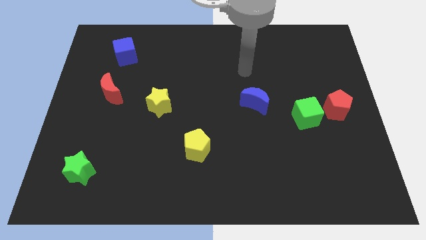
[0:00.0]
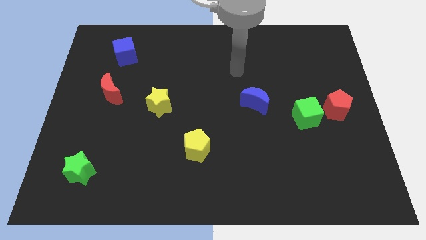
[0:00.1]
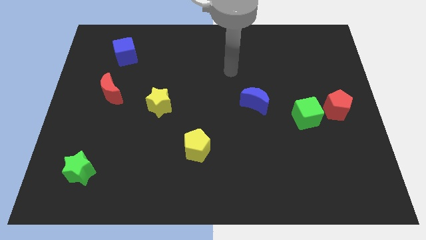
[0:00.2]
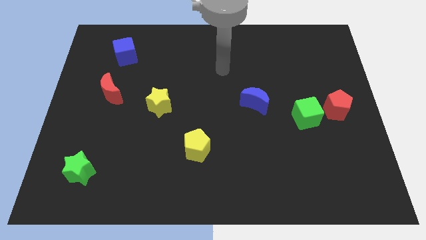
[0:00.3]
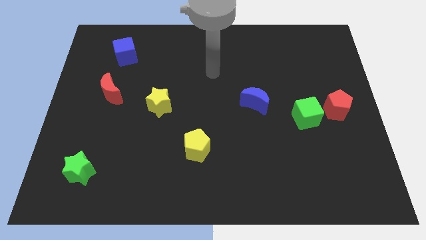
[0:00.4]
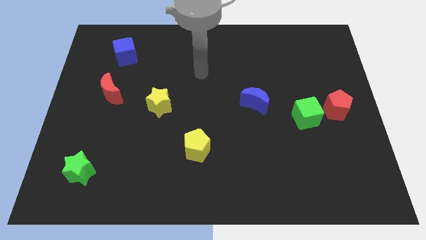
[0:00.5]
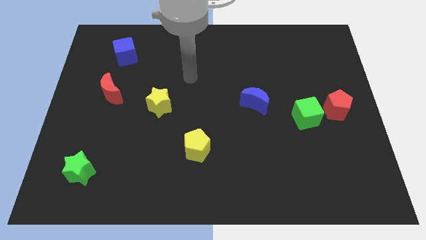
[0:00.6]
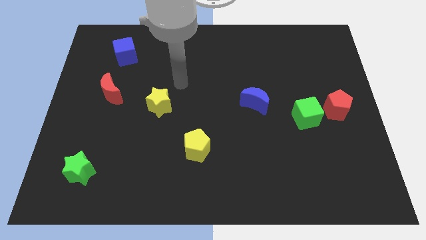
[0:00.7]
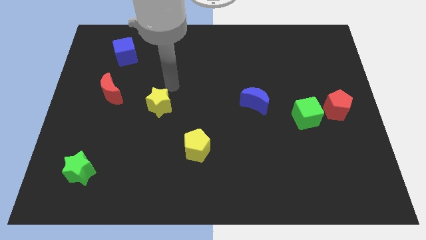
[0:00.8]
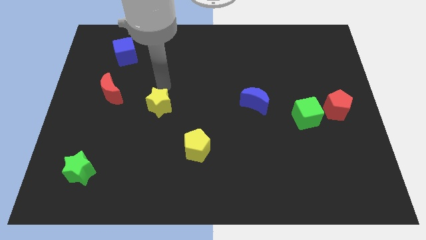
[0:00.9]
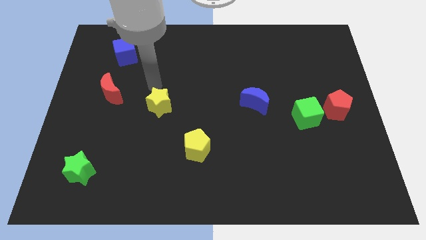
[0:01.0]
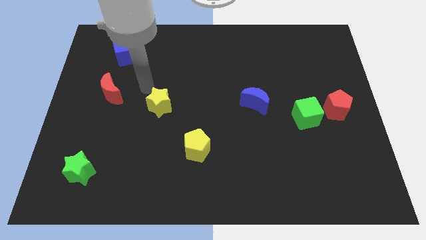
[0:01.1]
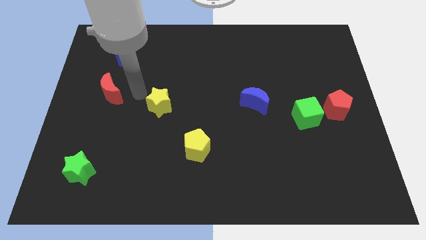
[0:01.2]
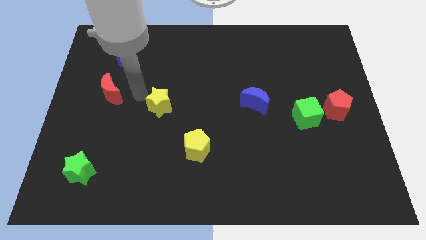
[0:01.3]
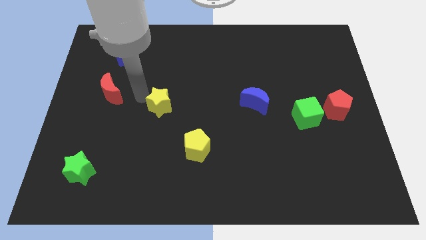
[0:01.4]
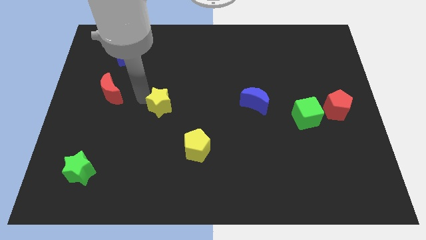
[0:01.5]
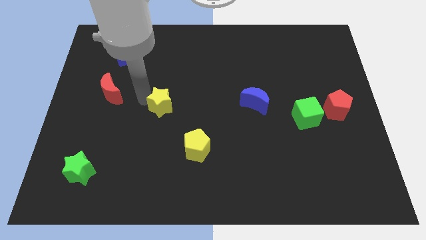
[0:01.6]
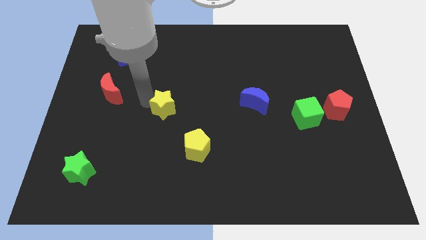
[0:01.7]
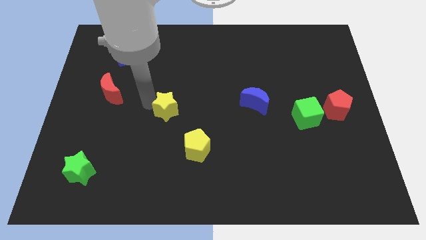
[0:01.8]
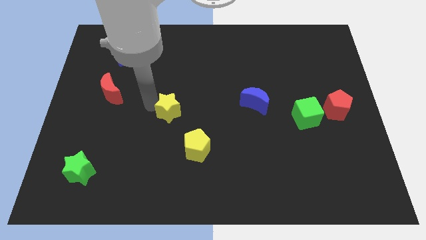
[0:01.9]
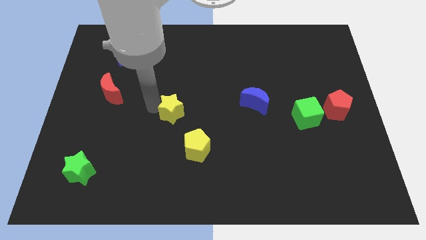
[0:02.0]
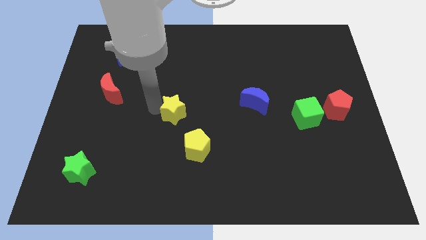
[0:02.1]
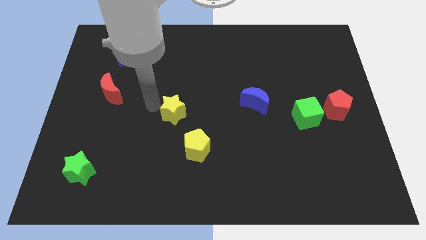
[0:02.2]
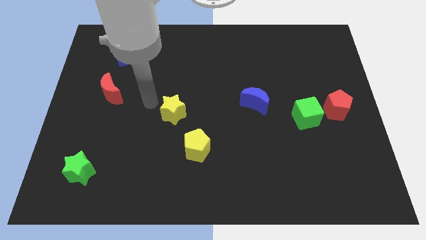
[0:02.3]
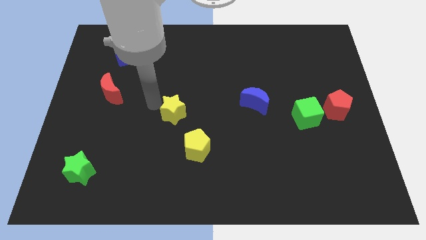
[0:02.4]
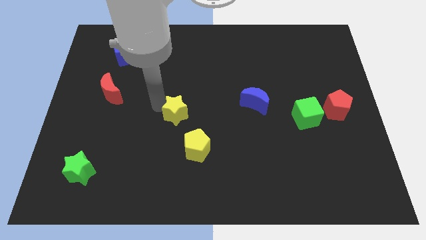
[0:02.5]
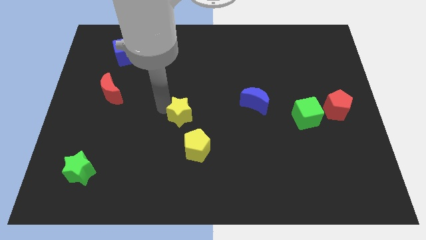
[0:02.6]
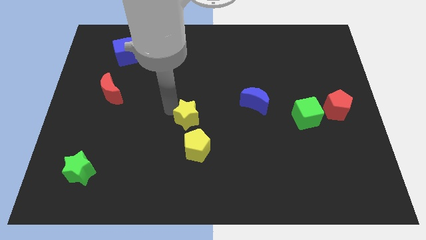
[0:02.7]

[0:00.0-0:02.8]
slightly move the yellow star down and then right

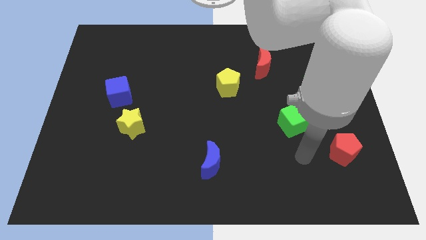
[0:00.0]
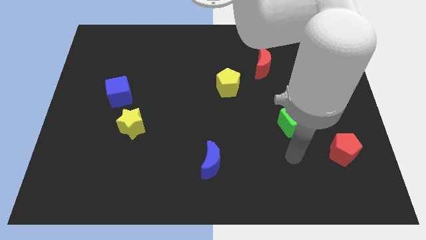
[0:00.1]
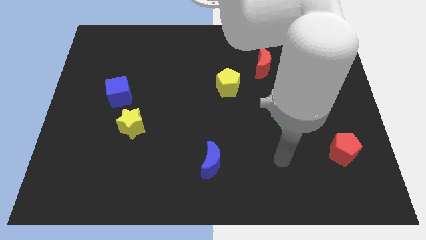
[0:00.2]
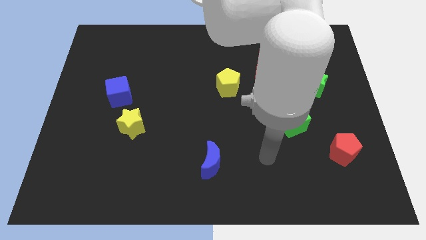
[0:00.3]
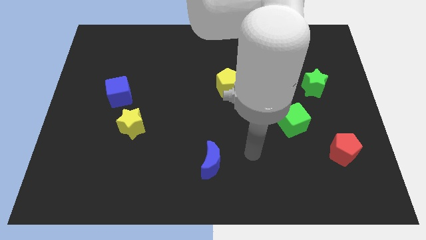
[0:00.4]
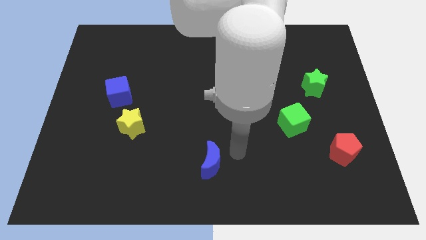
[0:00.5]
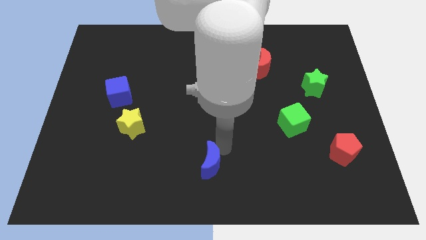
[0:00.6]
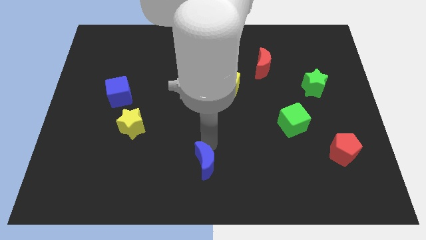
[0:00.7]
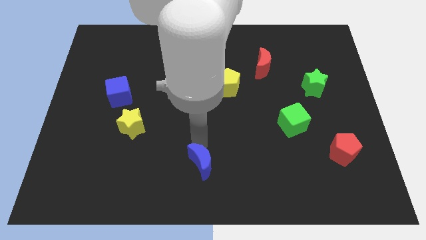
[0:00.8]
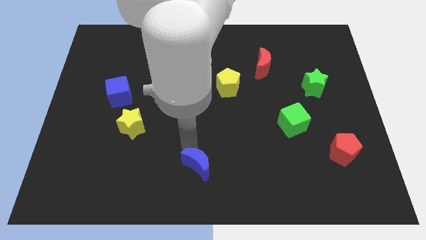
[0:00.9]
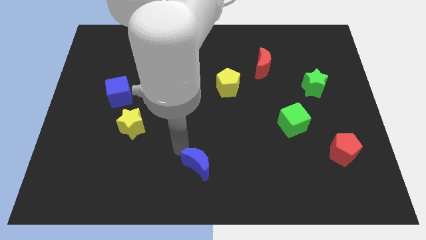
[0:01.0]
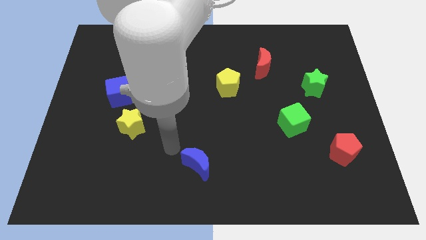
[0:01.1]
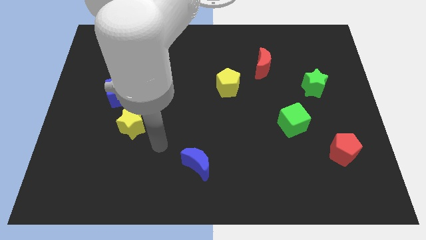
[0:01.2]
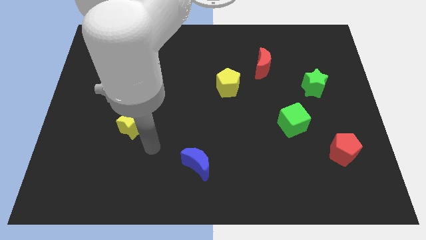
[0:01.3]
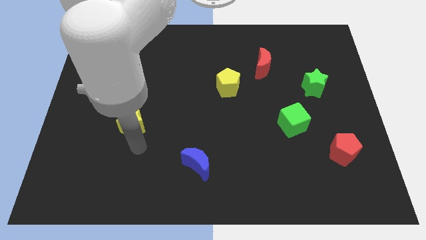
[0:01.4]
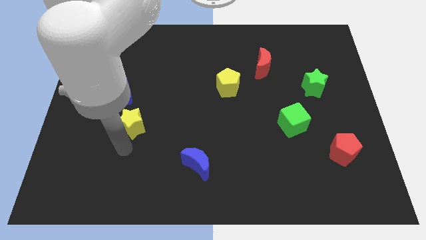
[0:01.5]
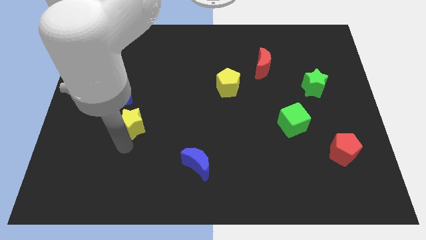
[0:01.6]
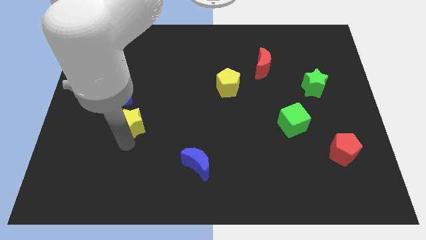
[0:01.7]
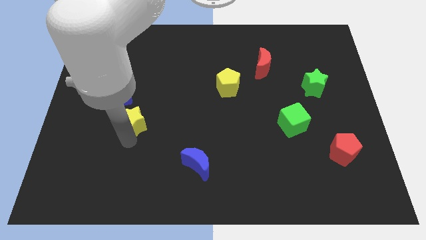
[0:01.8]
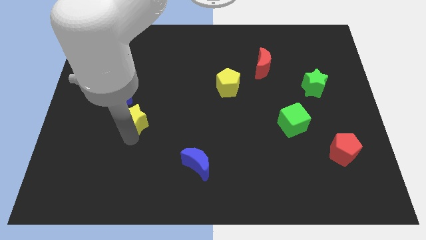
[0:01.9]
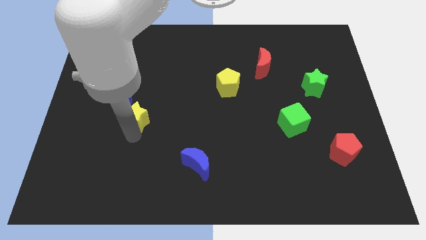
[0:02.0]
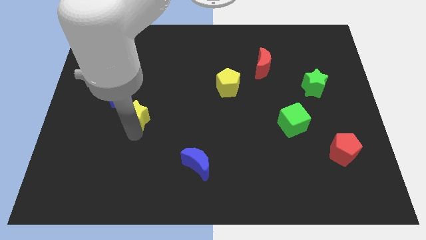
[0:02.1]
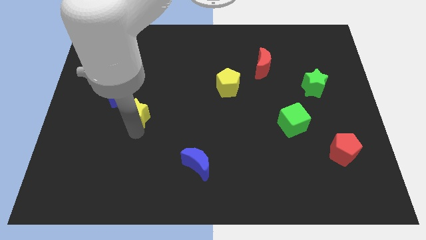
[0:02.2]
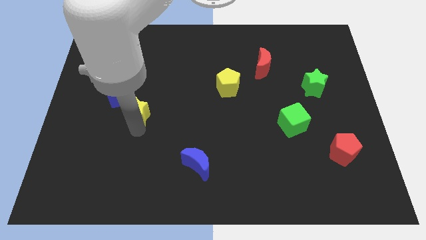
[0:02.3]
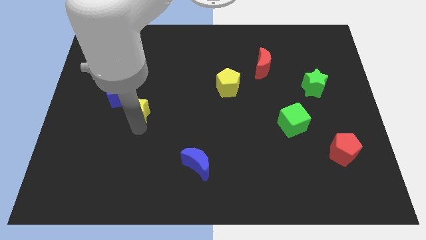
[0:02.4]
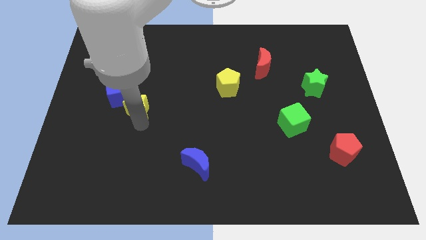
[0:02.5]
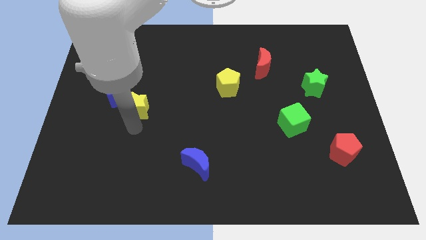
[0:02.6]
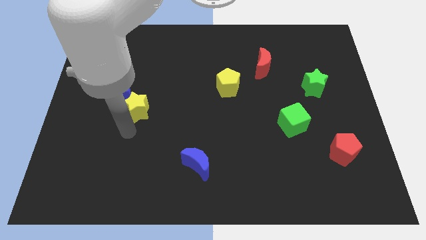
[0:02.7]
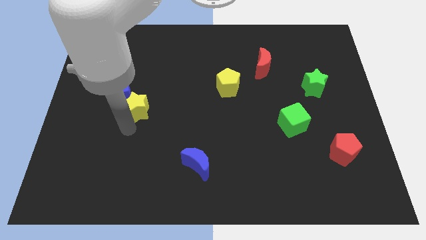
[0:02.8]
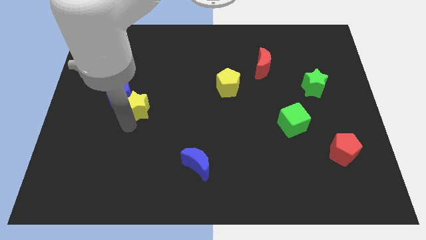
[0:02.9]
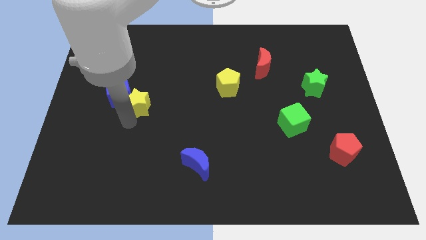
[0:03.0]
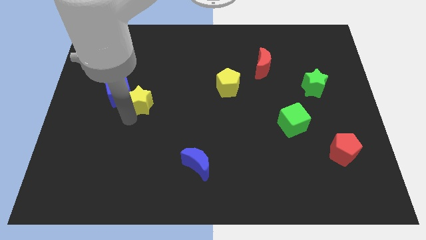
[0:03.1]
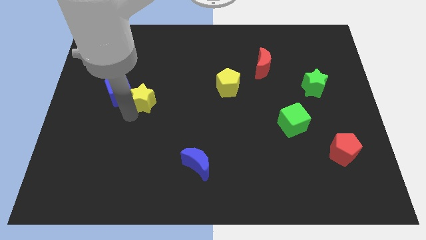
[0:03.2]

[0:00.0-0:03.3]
slide the yellow star up a little bit

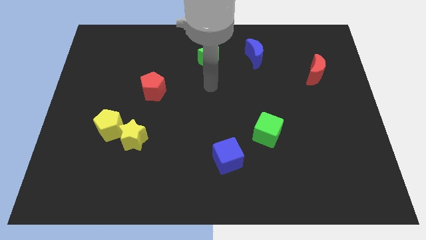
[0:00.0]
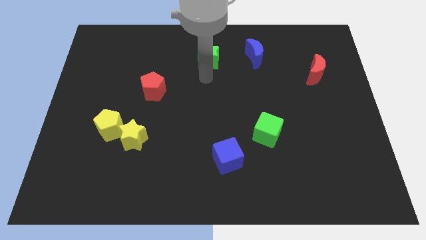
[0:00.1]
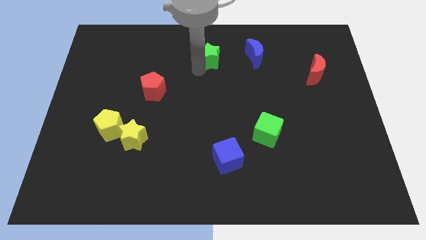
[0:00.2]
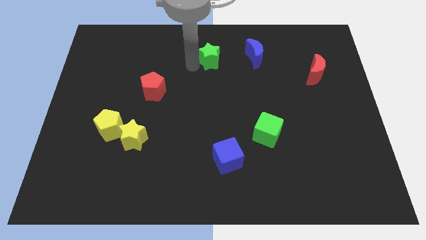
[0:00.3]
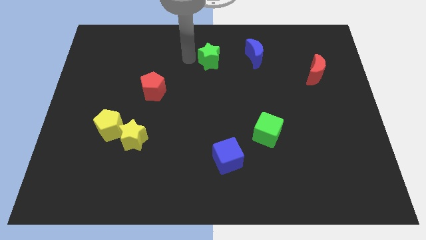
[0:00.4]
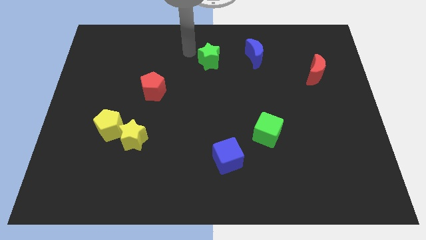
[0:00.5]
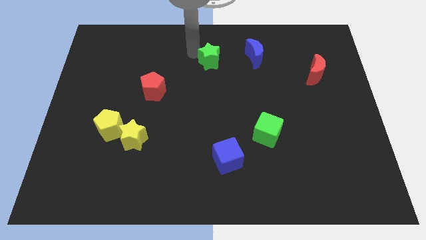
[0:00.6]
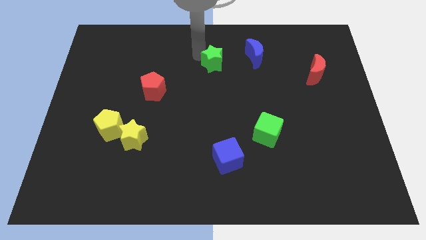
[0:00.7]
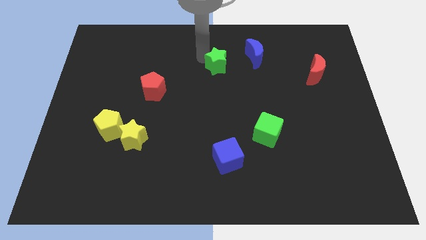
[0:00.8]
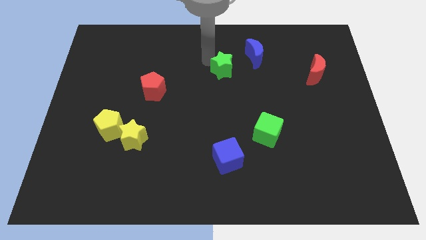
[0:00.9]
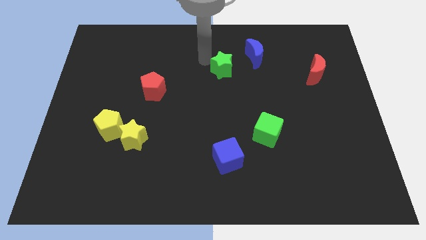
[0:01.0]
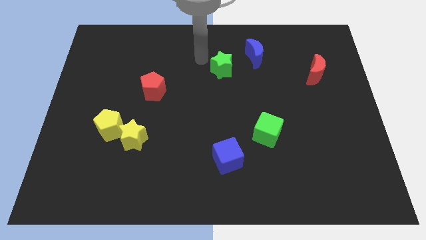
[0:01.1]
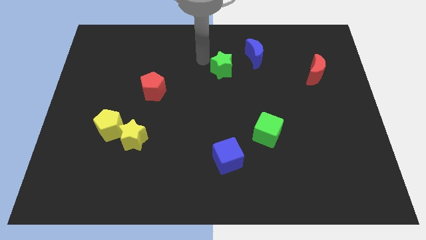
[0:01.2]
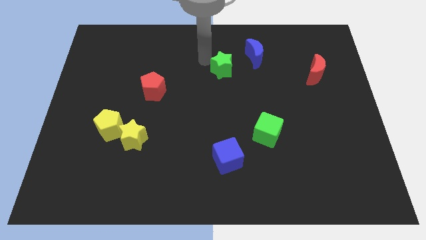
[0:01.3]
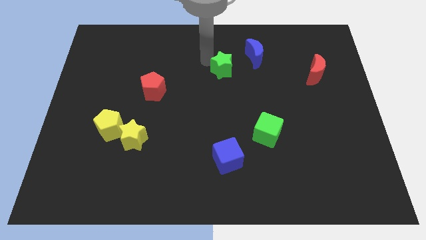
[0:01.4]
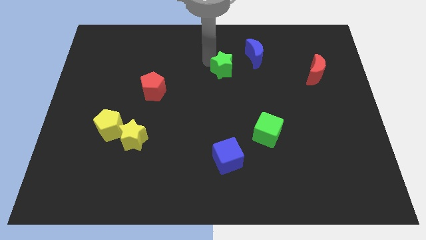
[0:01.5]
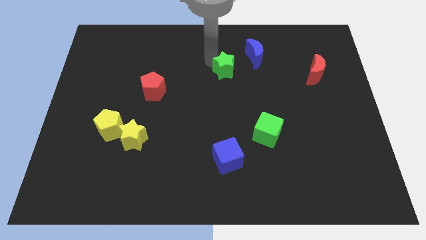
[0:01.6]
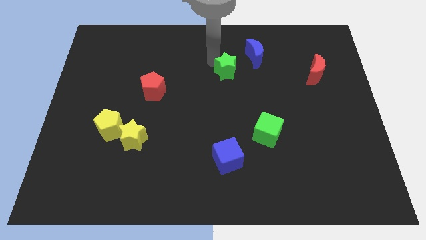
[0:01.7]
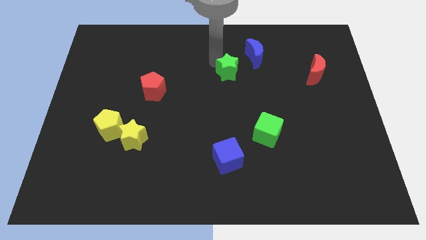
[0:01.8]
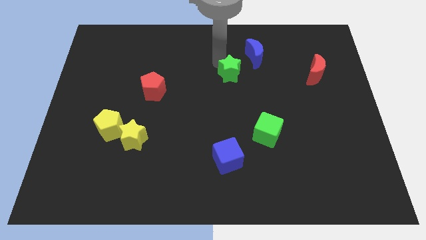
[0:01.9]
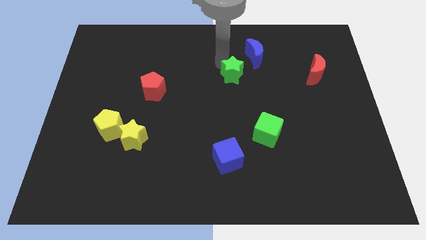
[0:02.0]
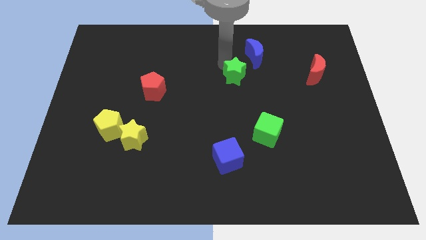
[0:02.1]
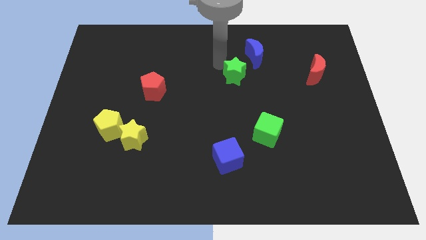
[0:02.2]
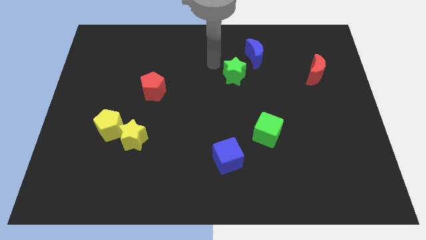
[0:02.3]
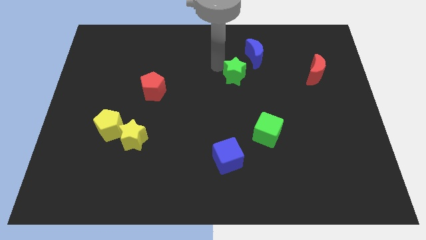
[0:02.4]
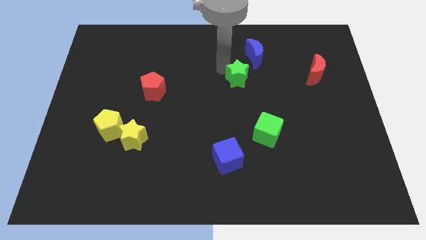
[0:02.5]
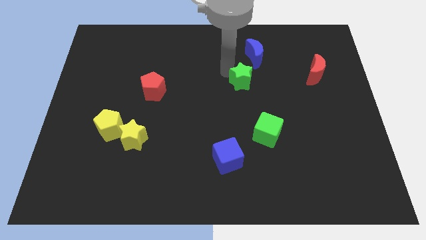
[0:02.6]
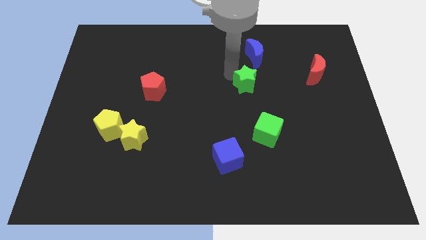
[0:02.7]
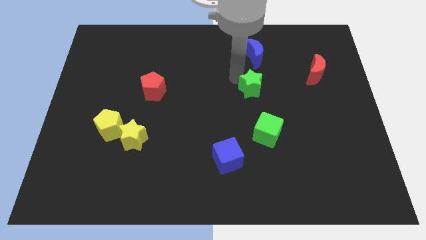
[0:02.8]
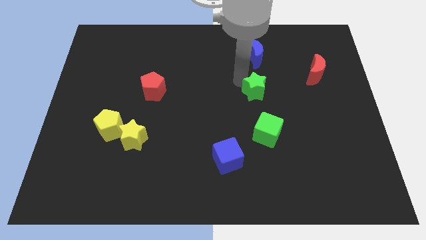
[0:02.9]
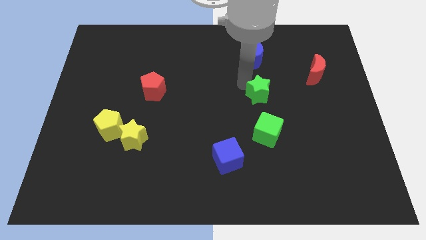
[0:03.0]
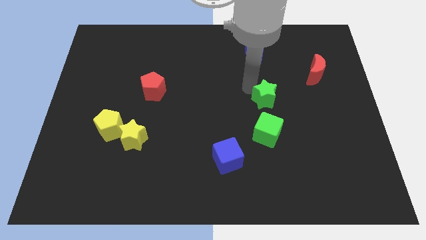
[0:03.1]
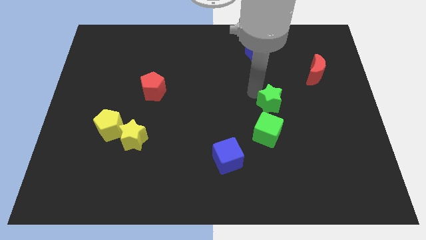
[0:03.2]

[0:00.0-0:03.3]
move the green star down and to the right
